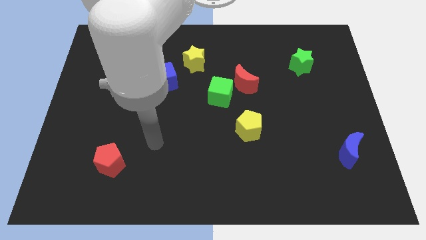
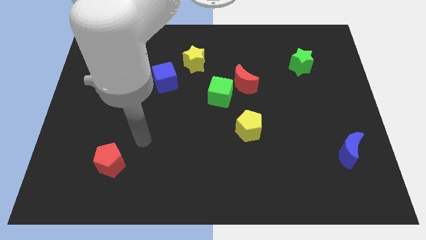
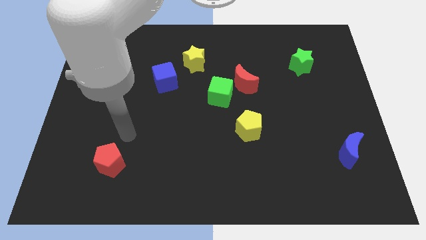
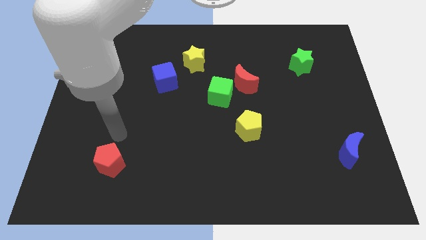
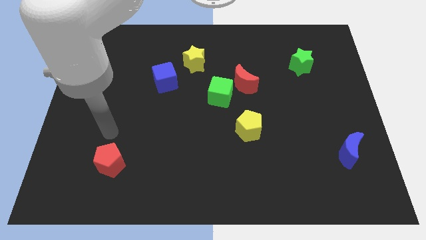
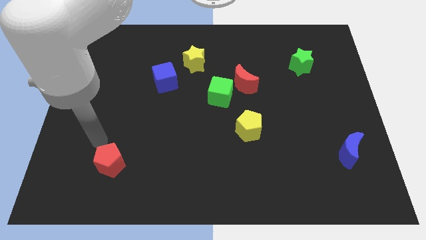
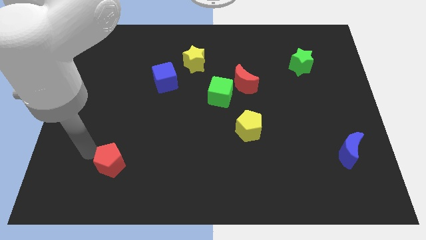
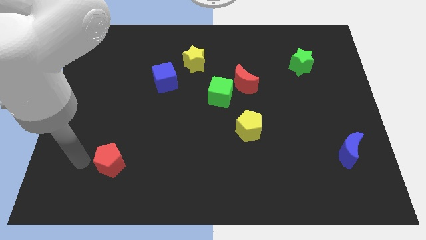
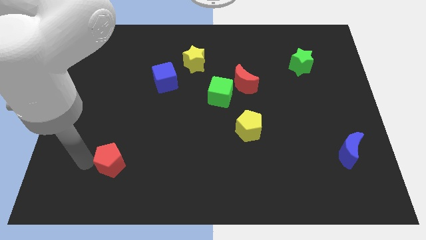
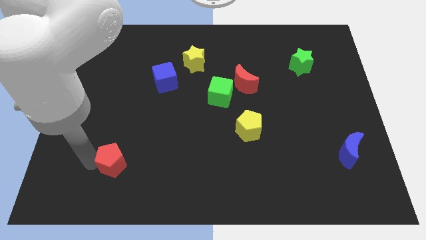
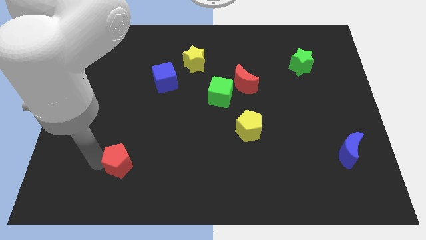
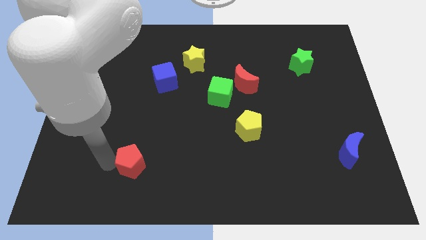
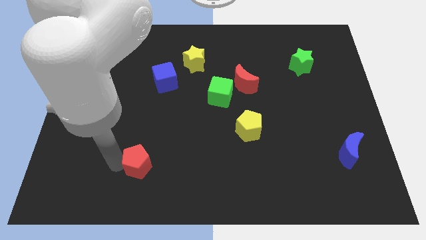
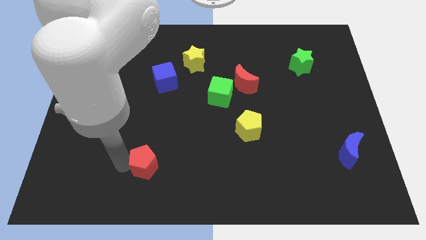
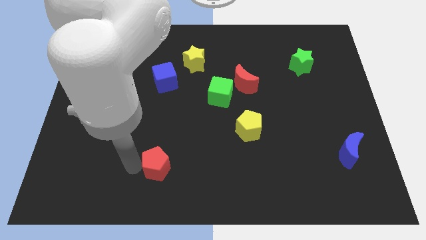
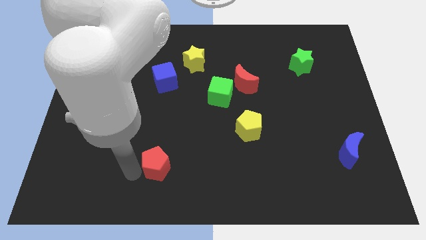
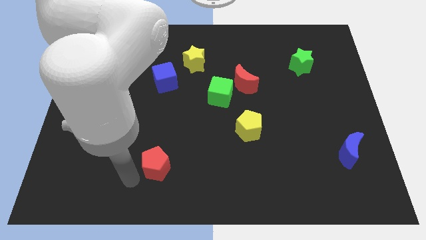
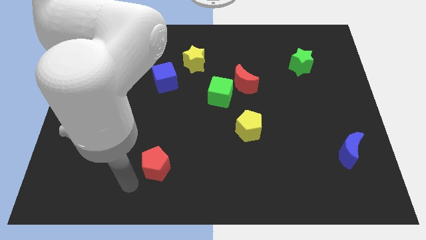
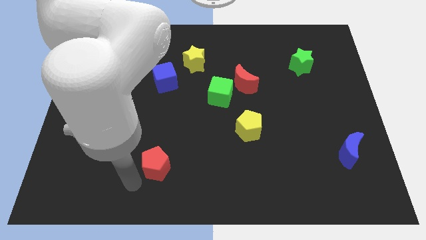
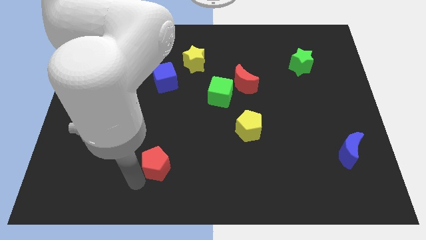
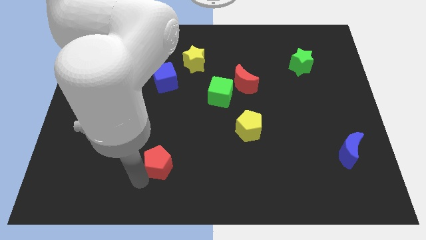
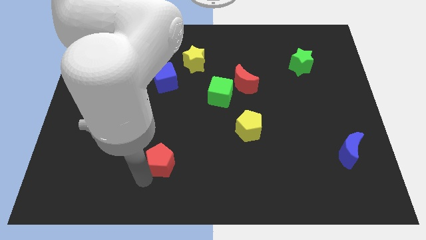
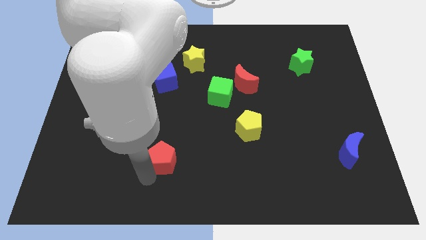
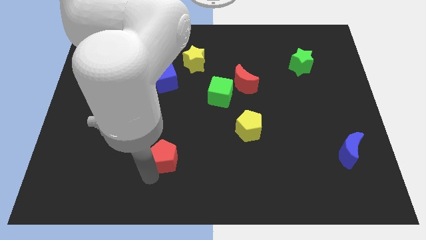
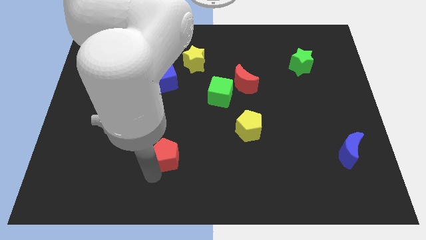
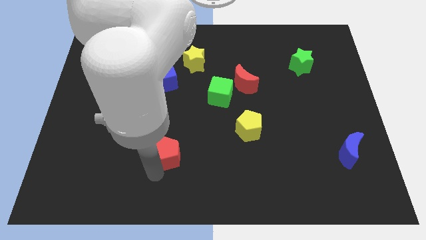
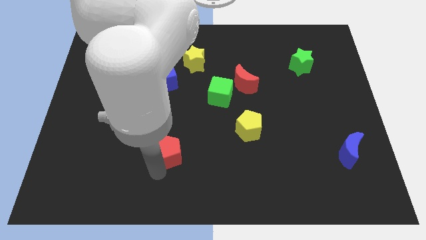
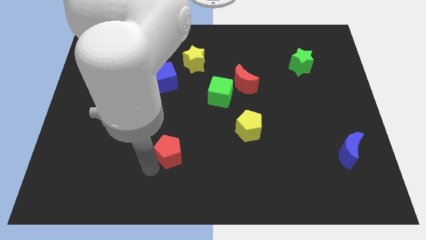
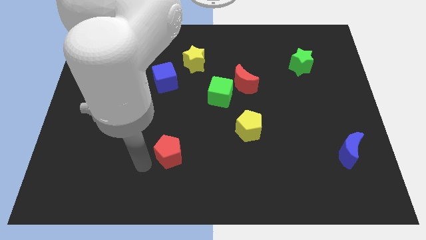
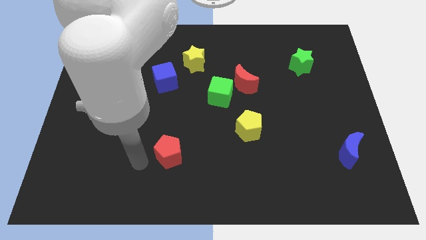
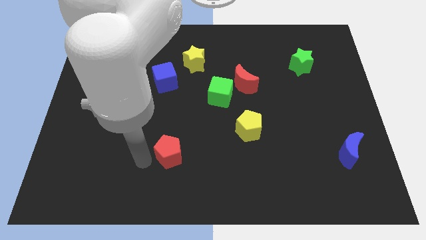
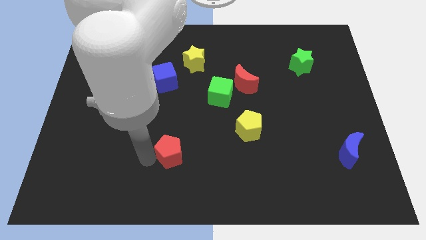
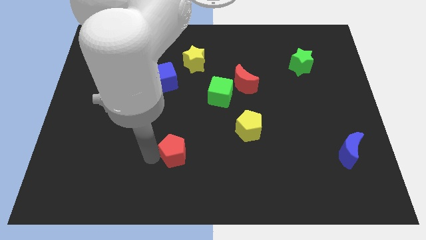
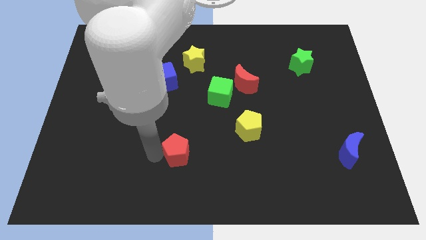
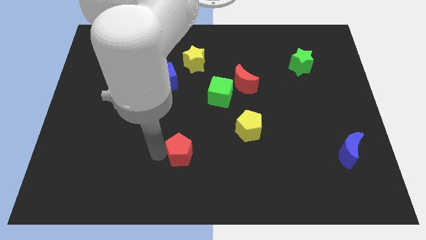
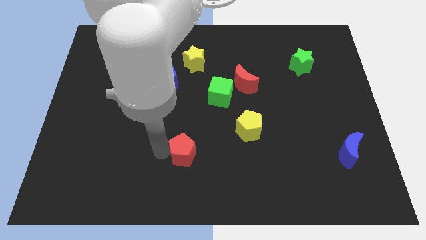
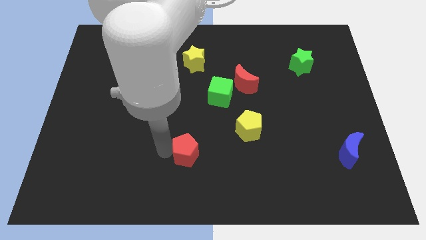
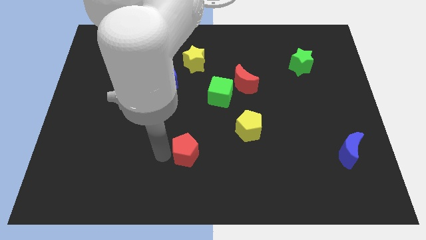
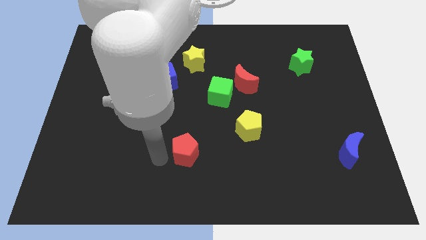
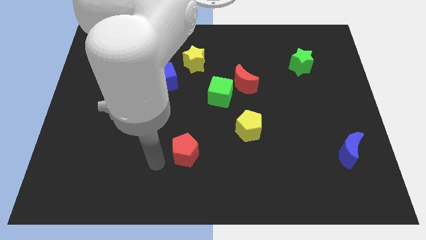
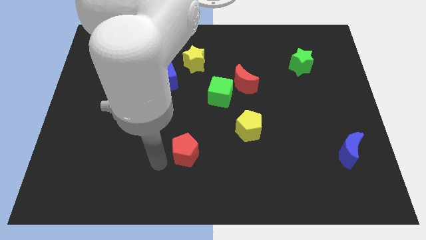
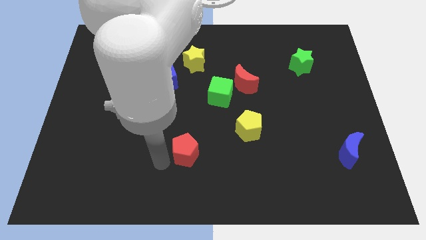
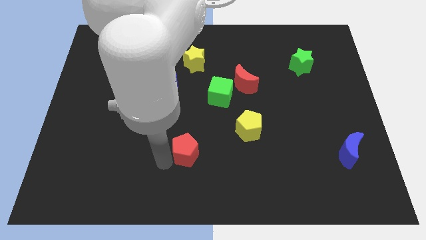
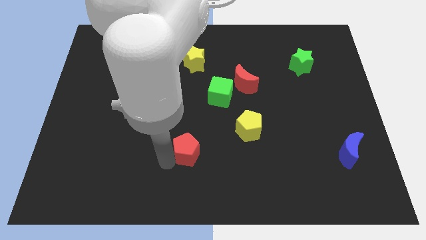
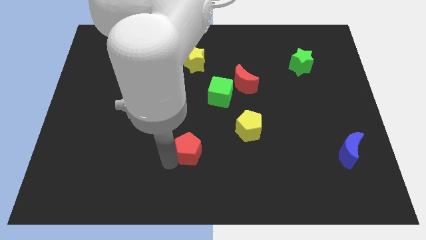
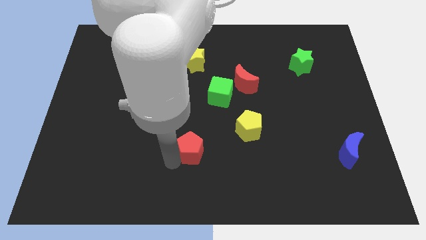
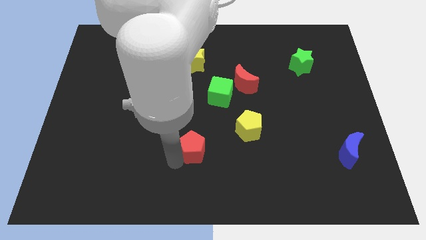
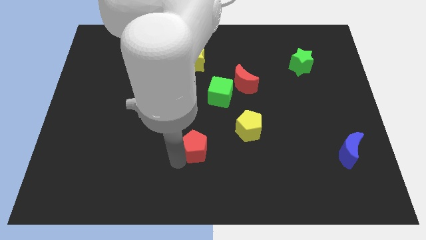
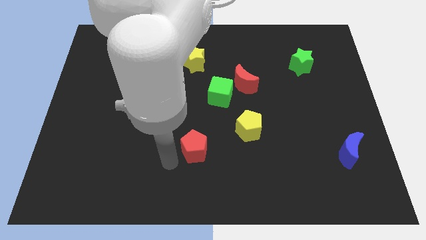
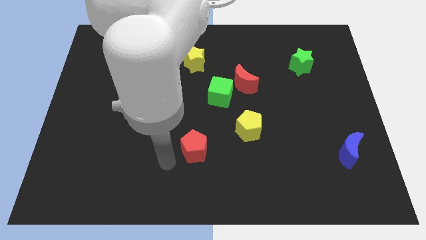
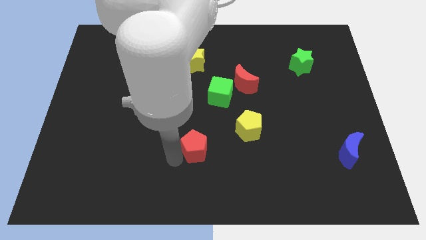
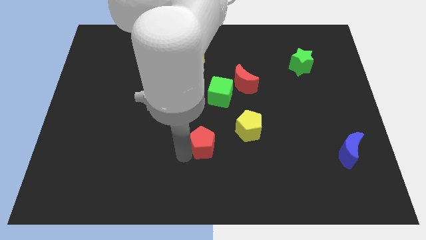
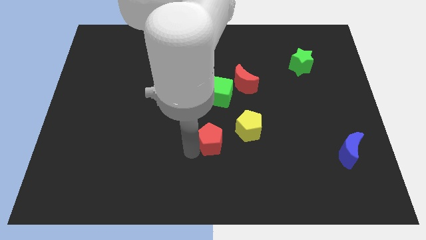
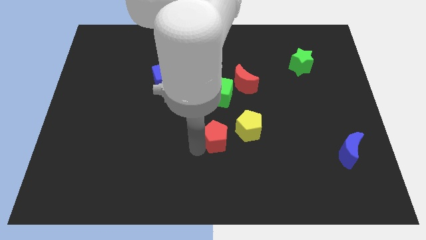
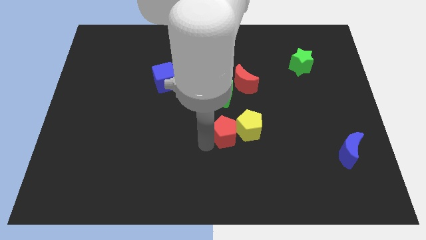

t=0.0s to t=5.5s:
slide the red pentagon towards the yellow pentagon

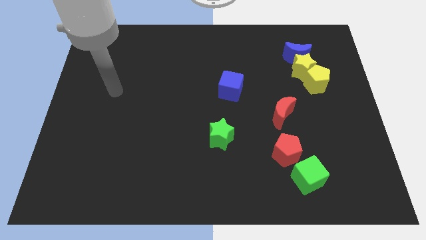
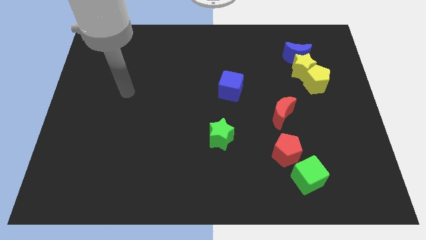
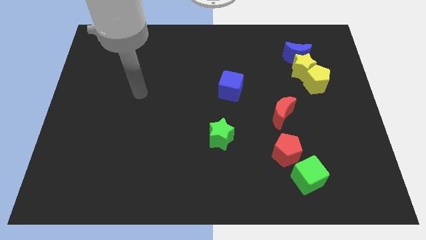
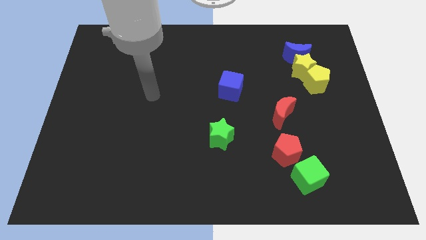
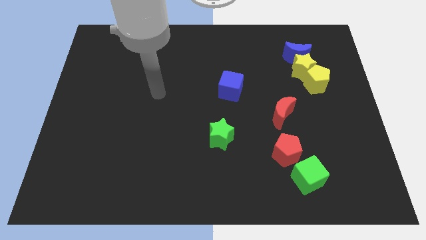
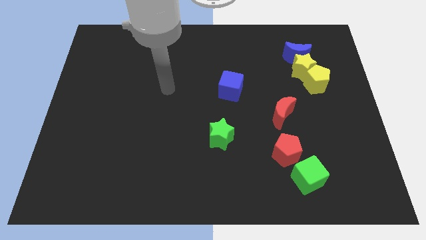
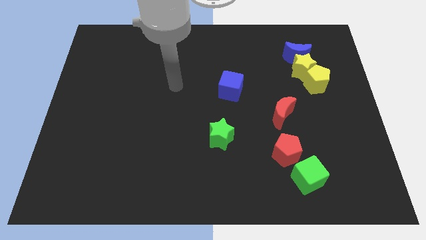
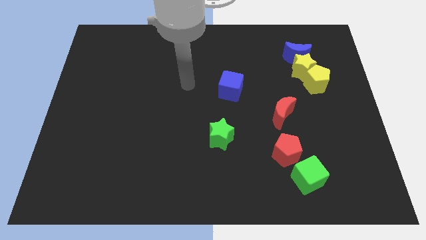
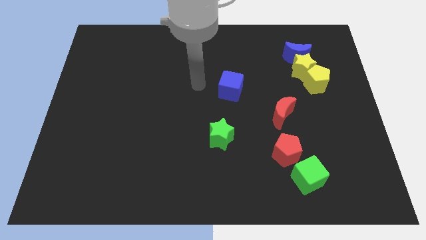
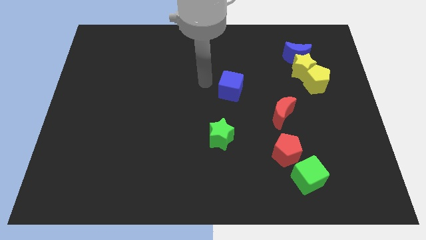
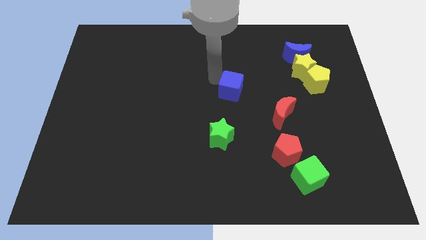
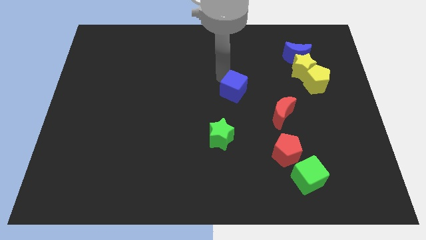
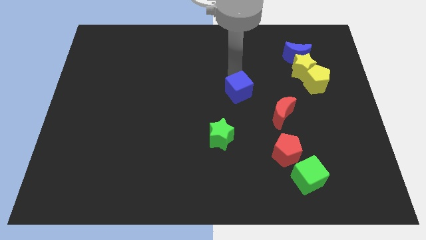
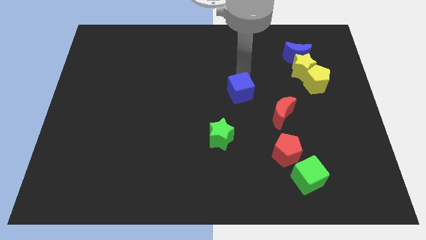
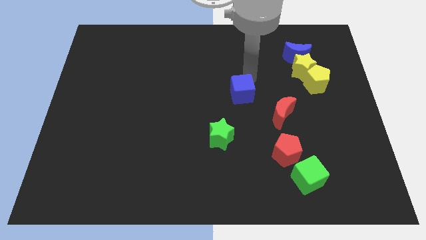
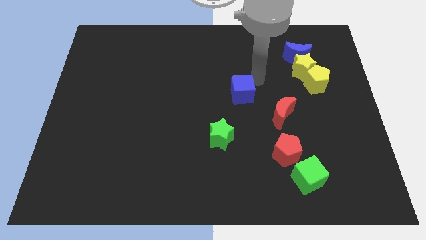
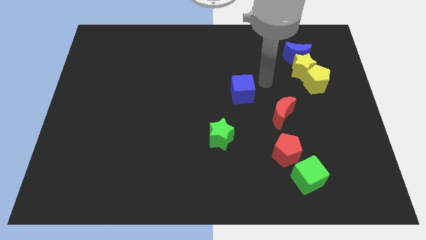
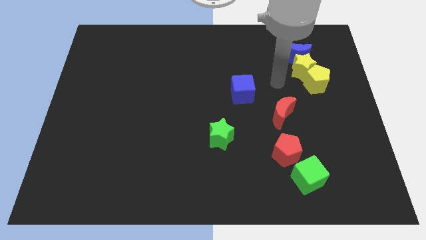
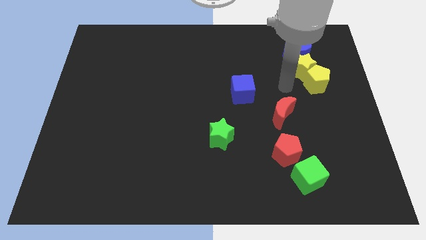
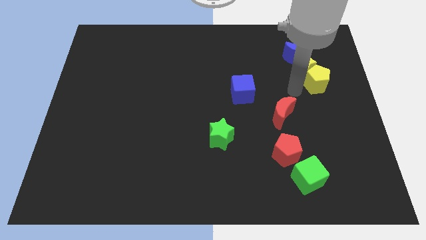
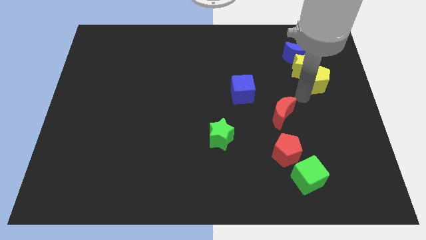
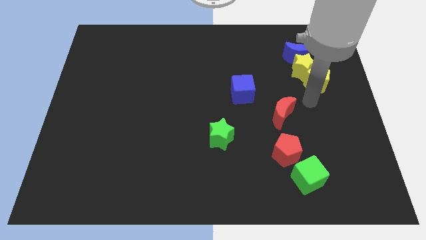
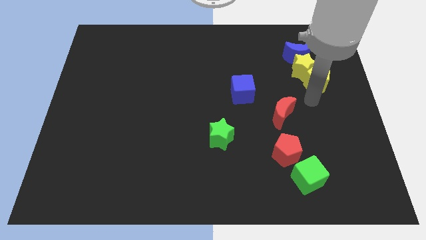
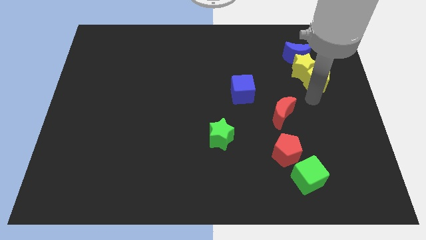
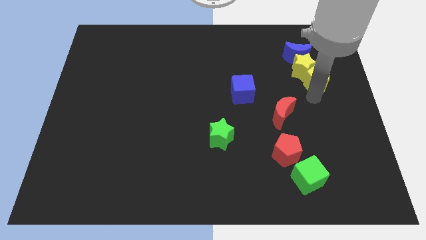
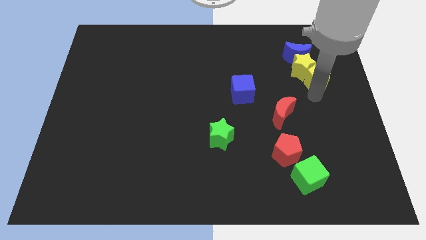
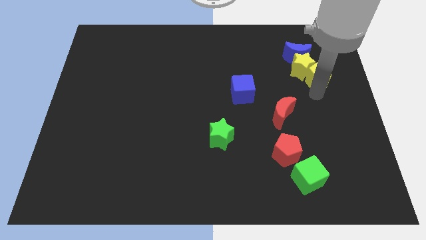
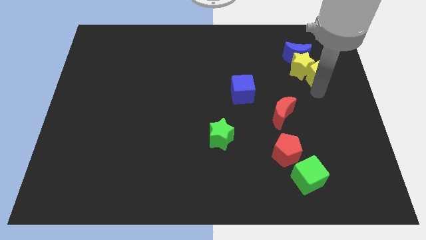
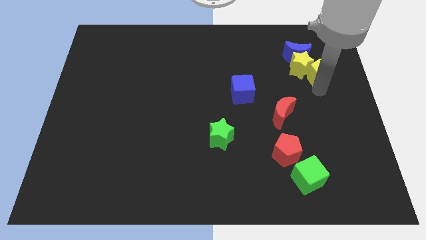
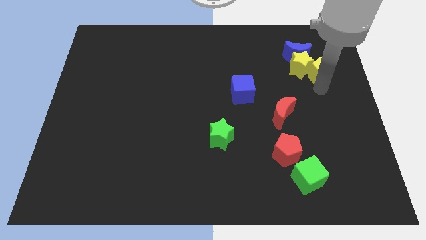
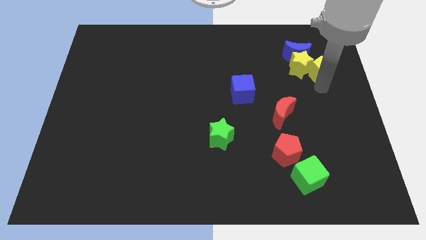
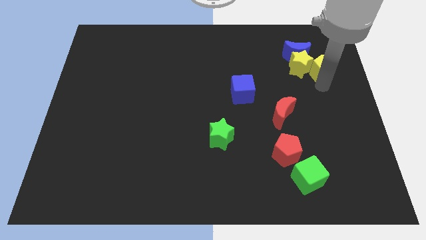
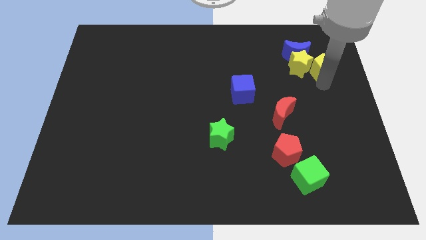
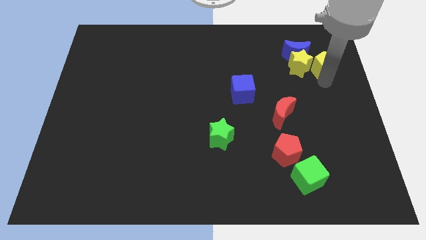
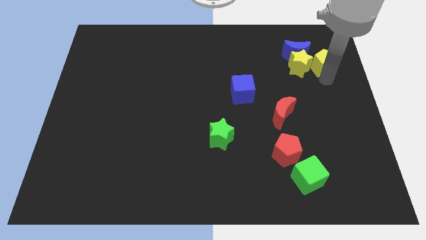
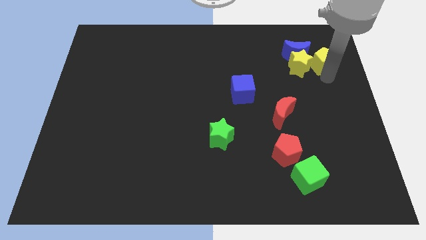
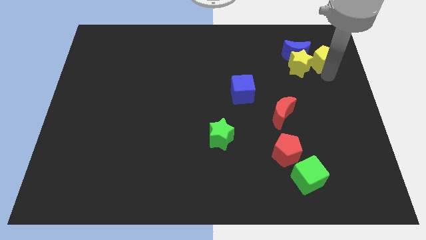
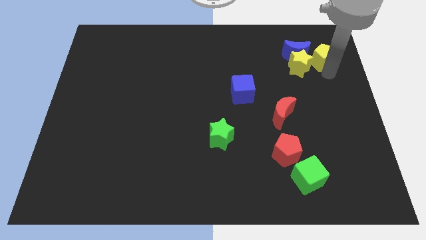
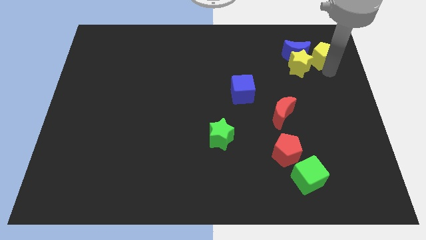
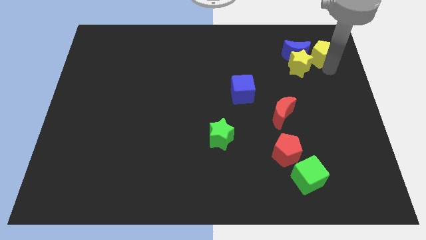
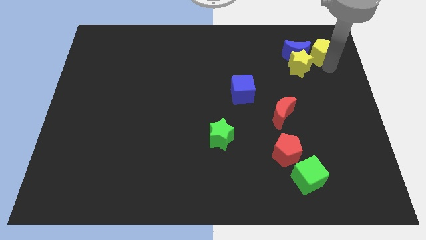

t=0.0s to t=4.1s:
slide the yellow pentagon to the blue moon
